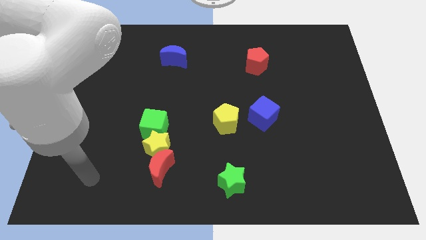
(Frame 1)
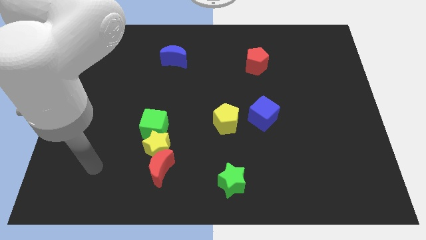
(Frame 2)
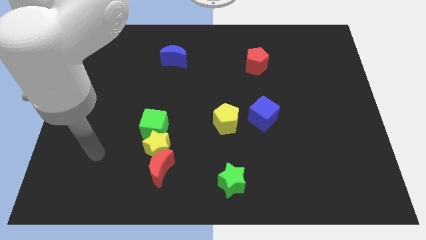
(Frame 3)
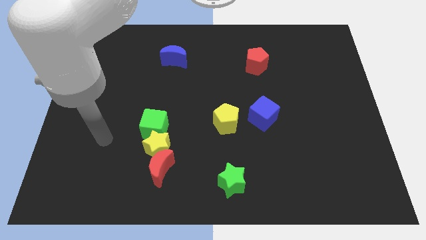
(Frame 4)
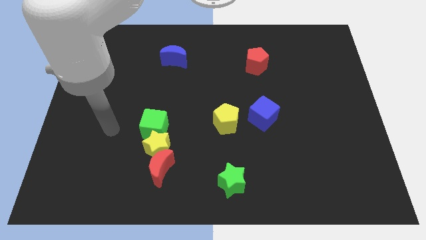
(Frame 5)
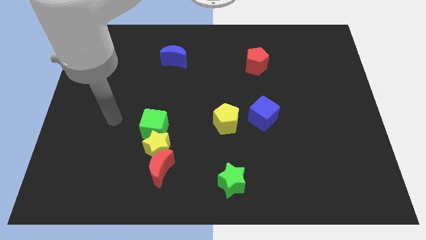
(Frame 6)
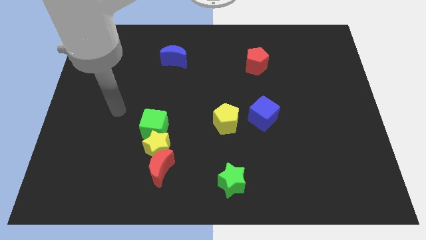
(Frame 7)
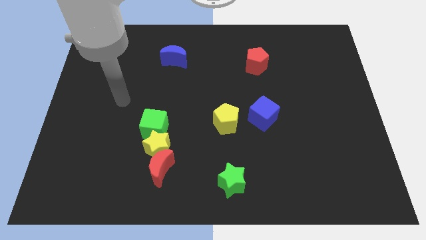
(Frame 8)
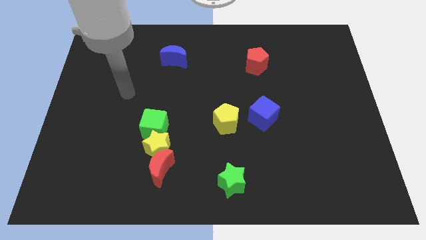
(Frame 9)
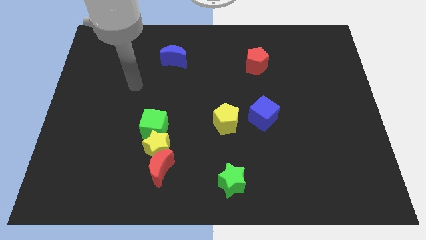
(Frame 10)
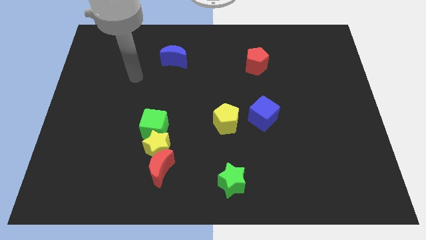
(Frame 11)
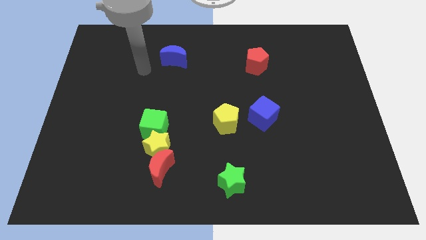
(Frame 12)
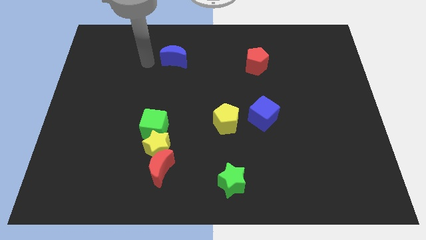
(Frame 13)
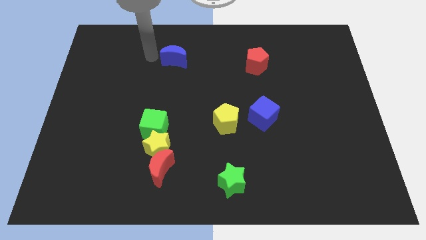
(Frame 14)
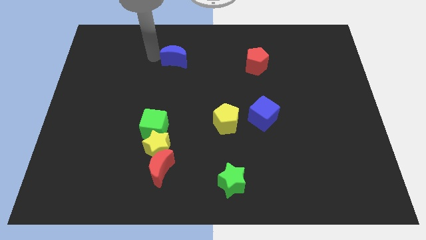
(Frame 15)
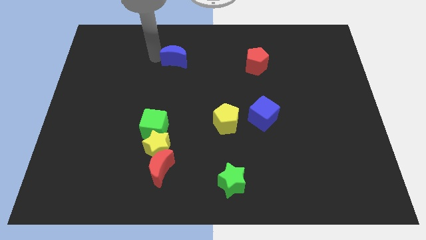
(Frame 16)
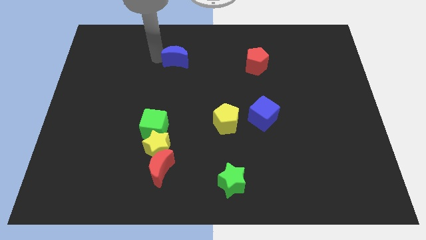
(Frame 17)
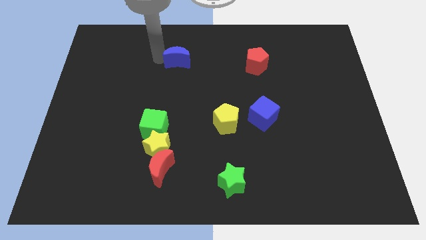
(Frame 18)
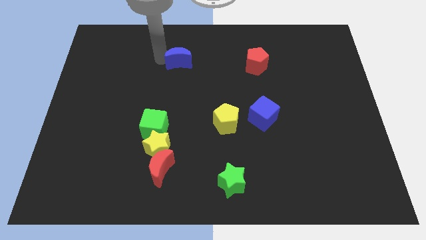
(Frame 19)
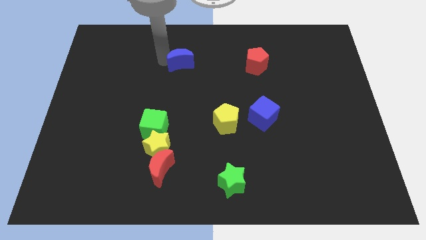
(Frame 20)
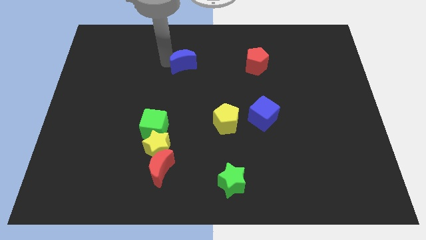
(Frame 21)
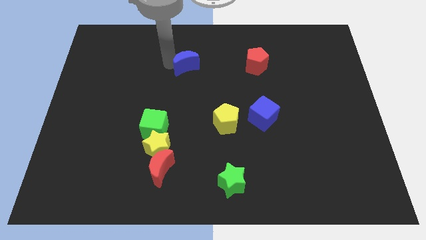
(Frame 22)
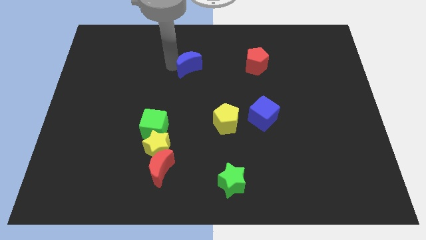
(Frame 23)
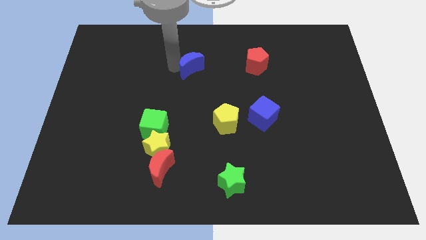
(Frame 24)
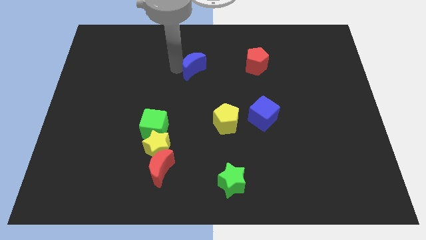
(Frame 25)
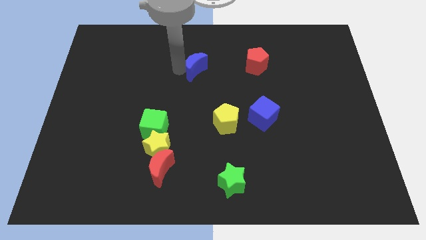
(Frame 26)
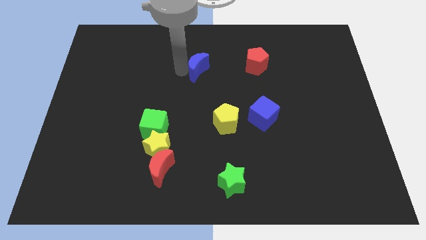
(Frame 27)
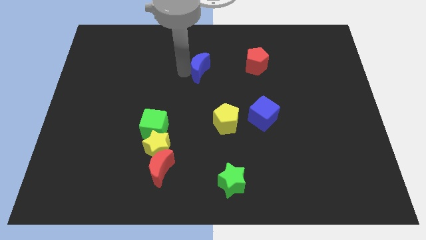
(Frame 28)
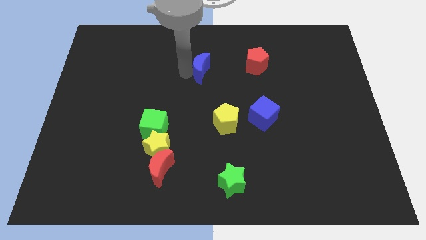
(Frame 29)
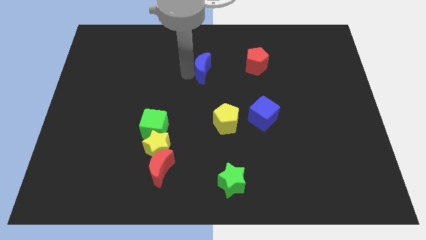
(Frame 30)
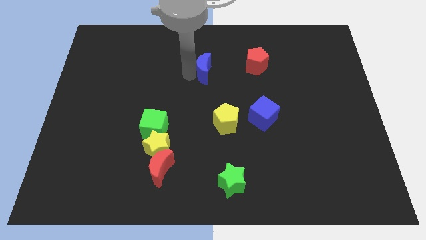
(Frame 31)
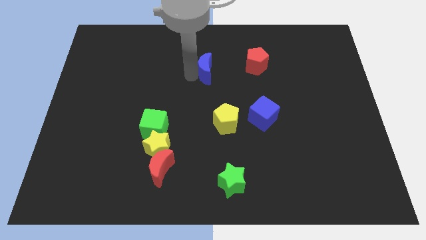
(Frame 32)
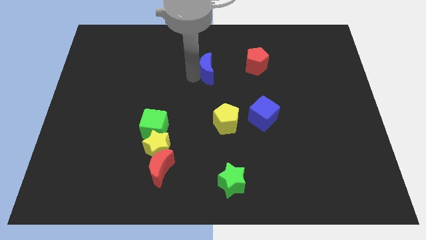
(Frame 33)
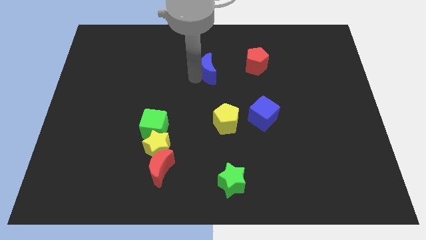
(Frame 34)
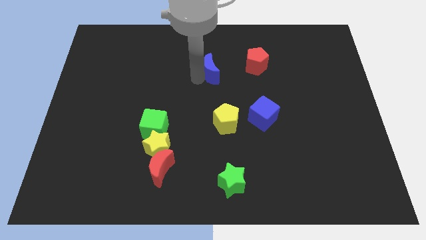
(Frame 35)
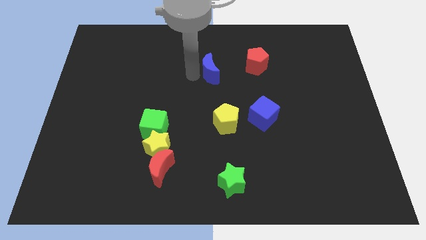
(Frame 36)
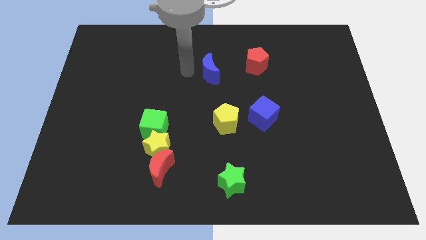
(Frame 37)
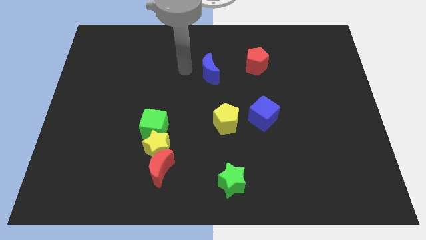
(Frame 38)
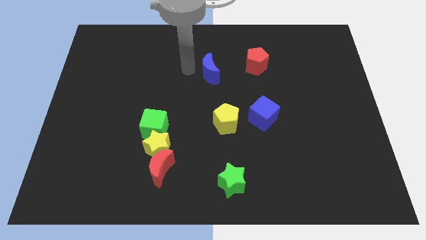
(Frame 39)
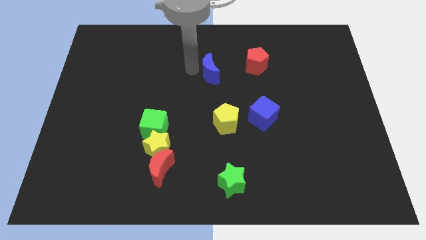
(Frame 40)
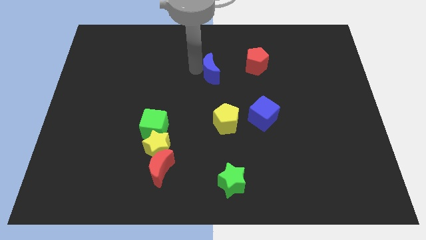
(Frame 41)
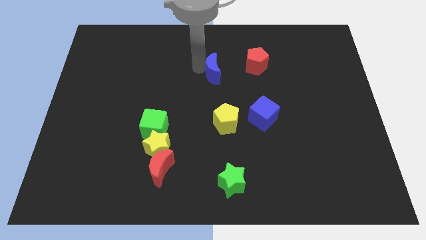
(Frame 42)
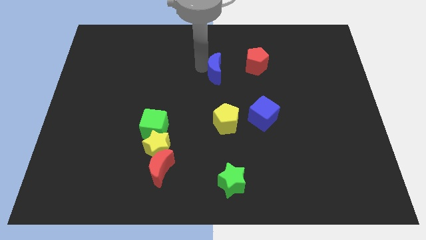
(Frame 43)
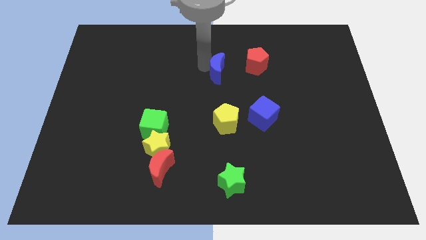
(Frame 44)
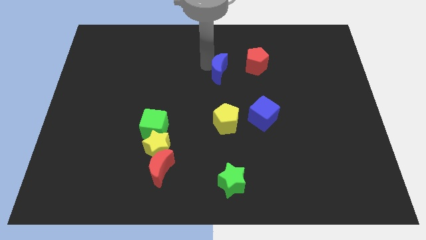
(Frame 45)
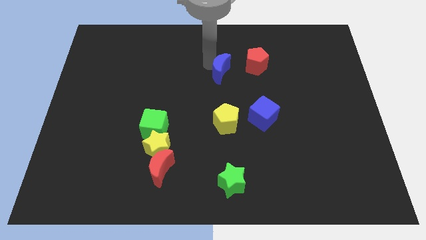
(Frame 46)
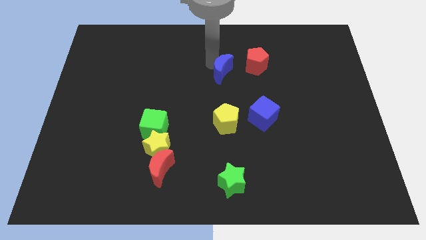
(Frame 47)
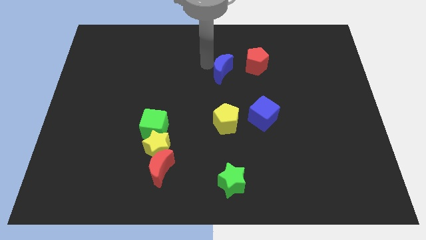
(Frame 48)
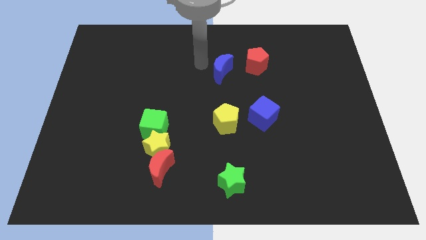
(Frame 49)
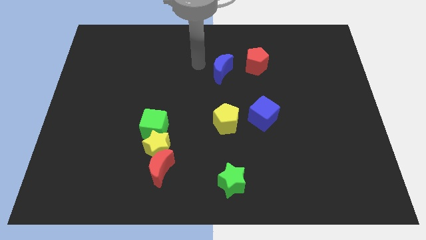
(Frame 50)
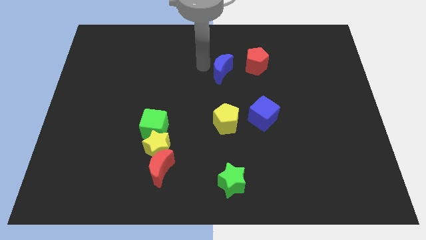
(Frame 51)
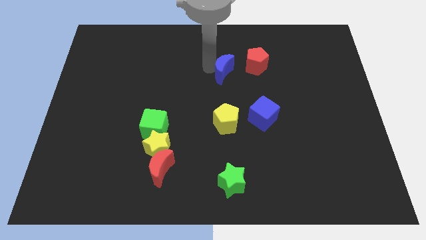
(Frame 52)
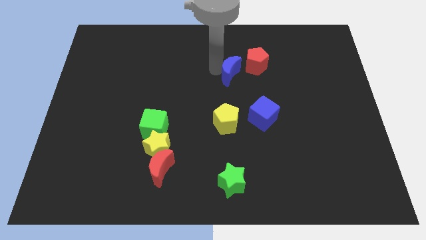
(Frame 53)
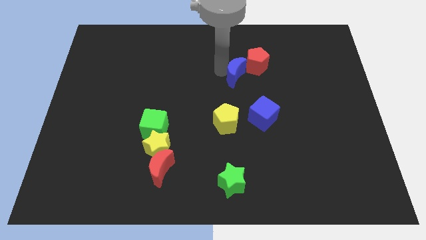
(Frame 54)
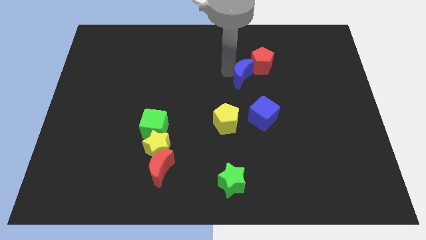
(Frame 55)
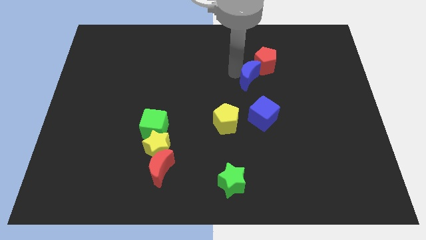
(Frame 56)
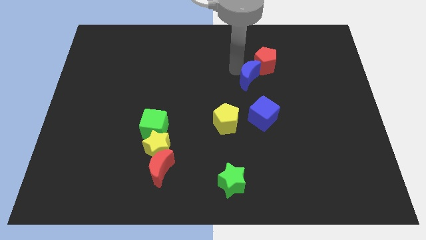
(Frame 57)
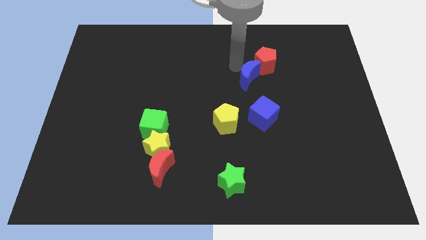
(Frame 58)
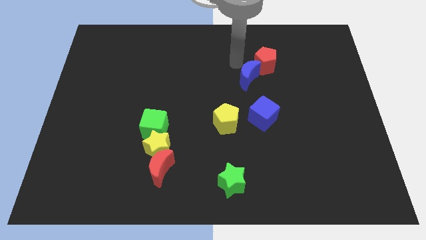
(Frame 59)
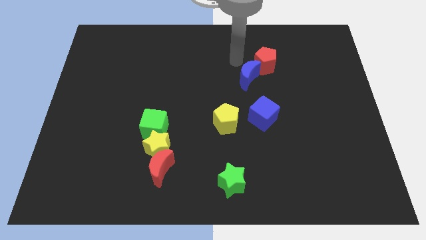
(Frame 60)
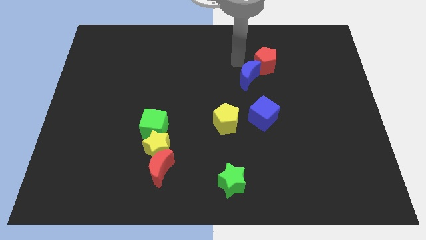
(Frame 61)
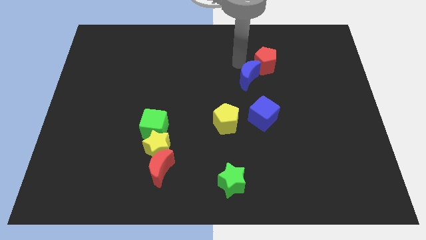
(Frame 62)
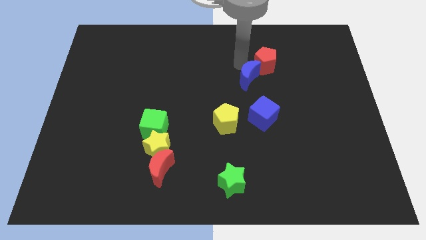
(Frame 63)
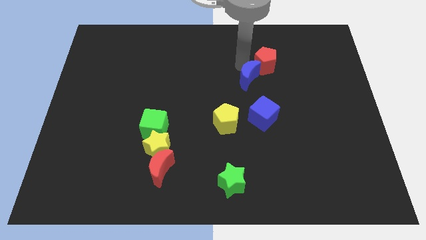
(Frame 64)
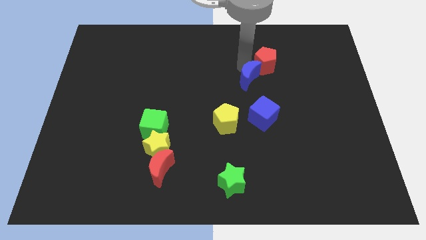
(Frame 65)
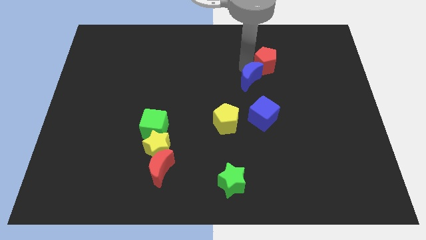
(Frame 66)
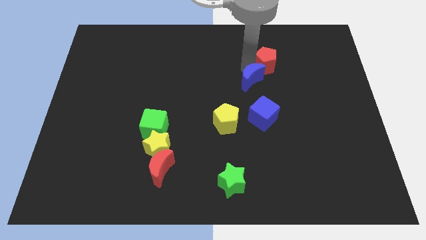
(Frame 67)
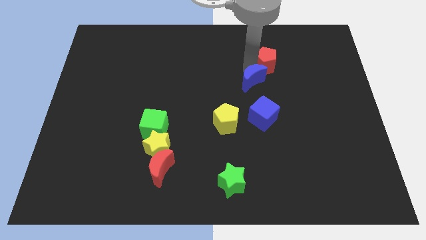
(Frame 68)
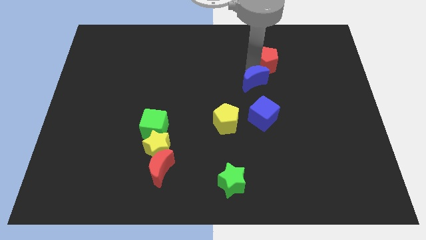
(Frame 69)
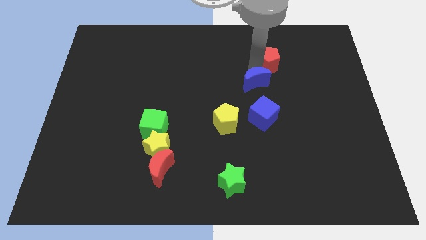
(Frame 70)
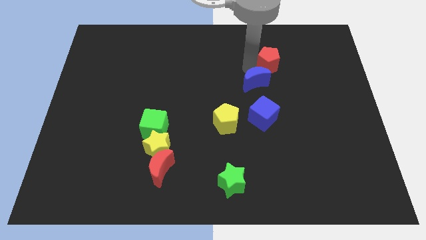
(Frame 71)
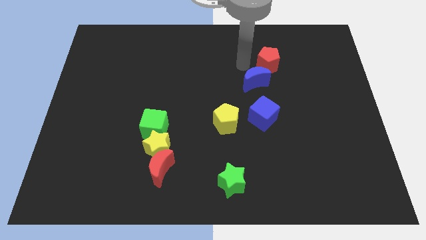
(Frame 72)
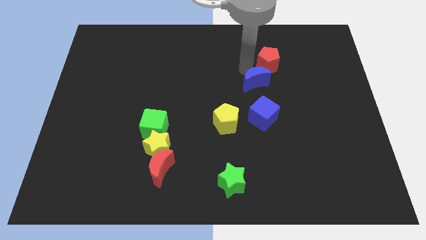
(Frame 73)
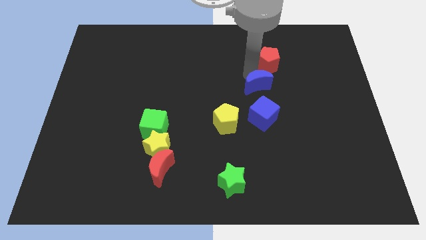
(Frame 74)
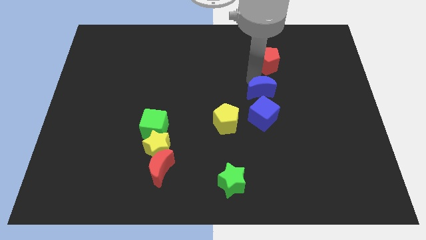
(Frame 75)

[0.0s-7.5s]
push the blue moon diagonally down and right

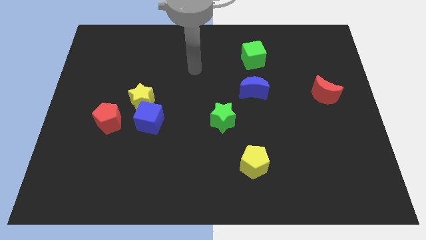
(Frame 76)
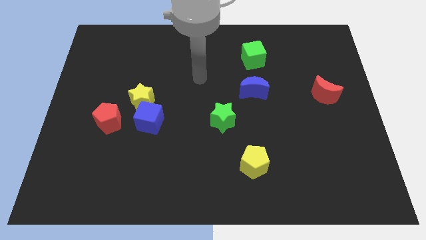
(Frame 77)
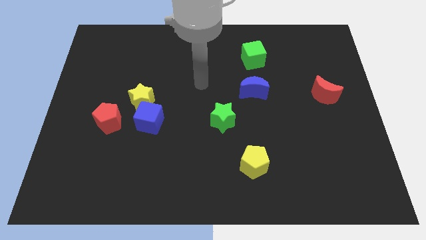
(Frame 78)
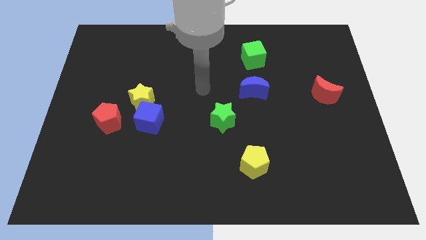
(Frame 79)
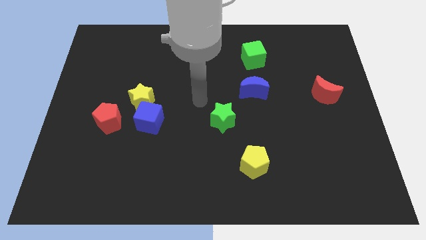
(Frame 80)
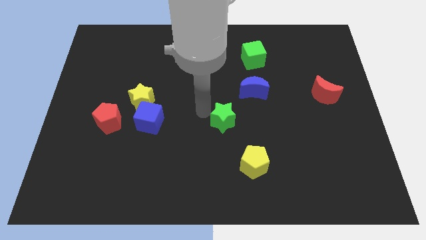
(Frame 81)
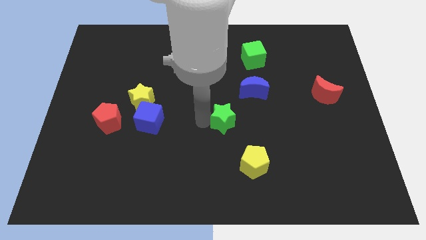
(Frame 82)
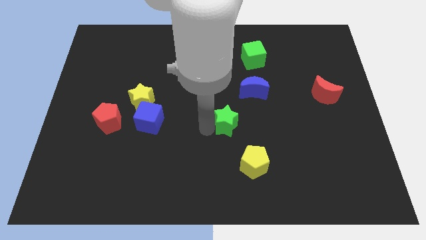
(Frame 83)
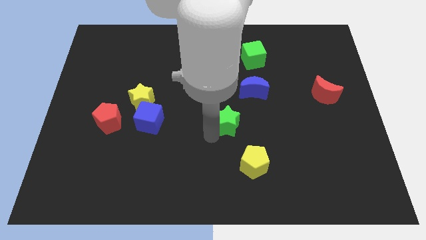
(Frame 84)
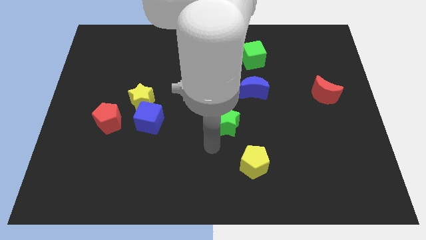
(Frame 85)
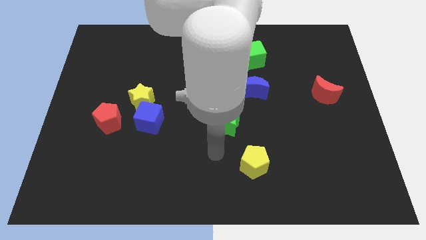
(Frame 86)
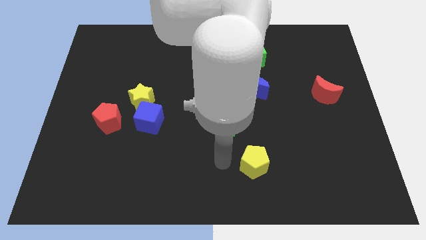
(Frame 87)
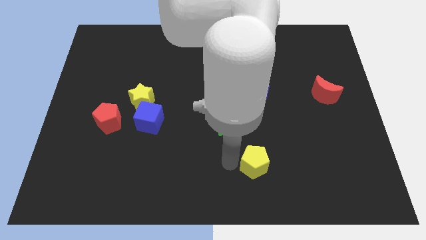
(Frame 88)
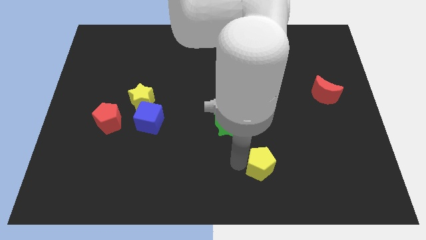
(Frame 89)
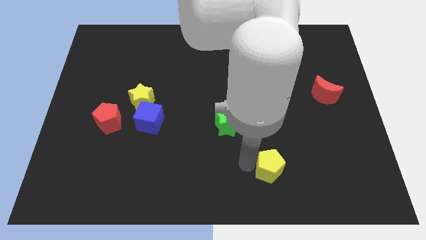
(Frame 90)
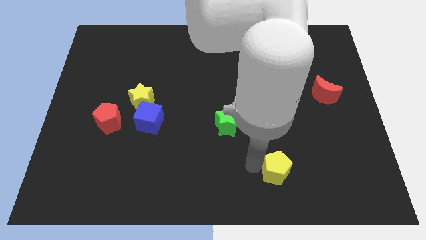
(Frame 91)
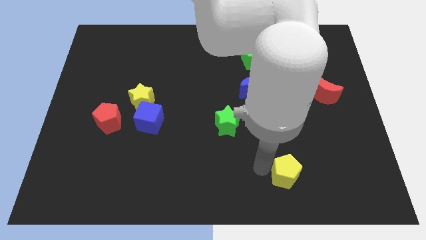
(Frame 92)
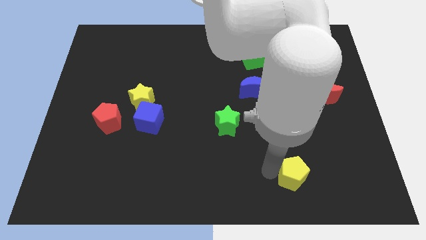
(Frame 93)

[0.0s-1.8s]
push the yellow pentagon right somewhat
